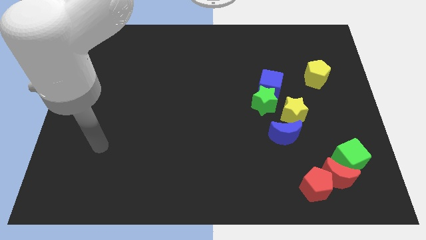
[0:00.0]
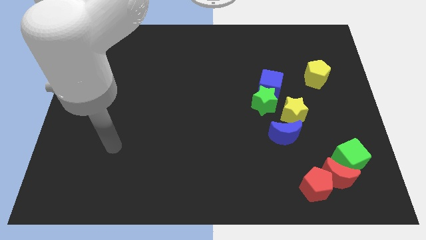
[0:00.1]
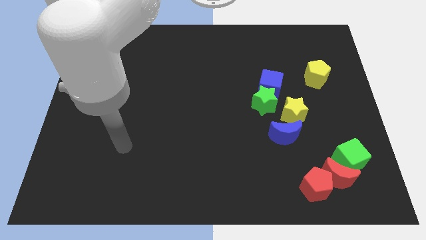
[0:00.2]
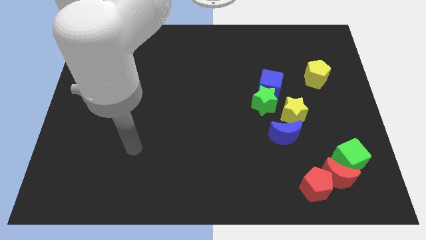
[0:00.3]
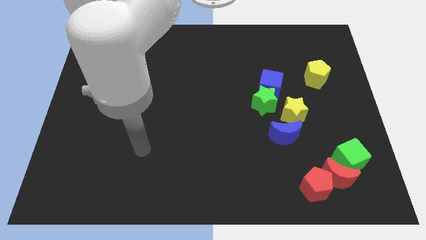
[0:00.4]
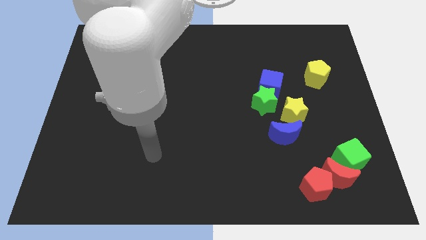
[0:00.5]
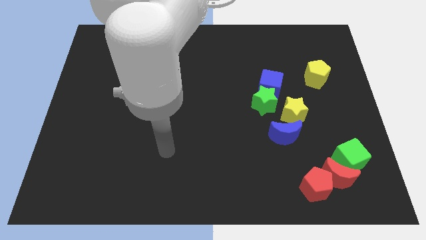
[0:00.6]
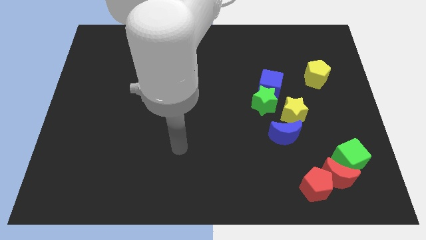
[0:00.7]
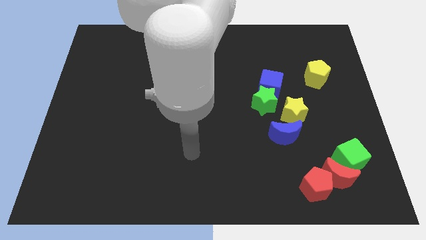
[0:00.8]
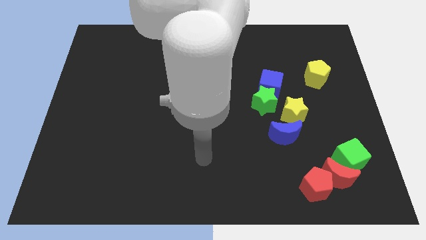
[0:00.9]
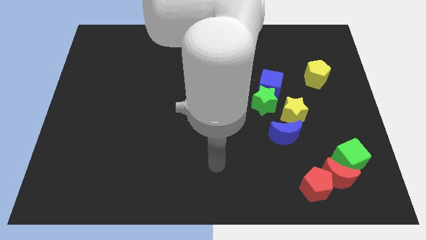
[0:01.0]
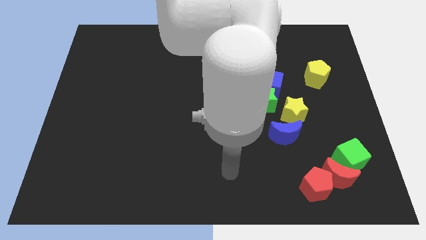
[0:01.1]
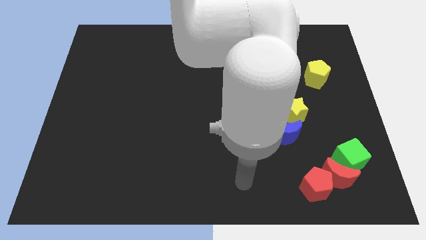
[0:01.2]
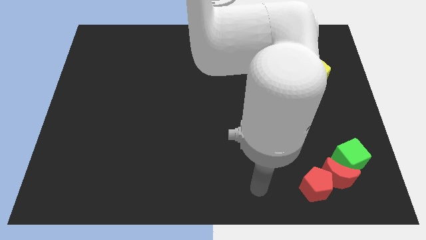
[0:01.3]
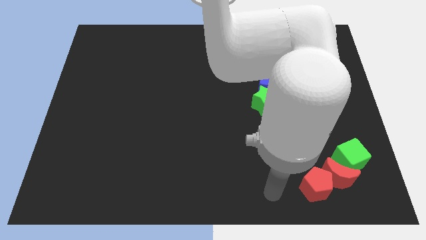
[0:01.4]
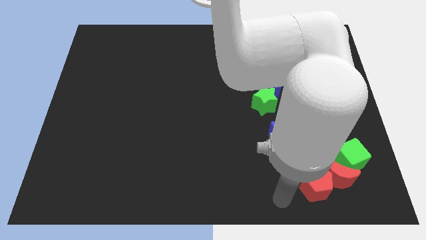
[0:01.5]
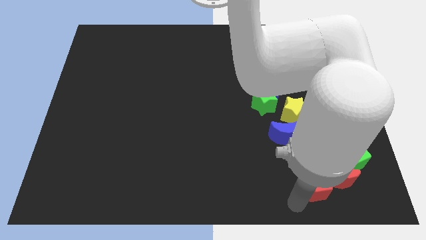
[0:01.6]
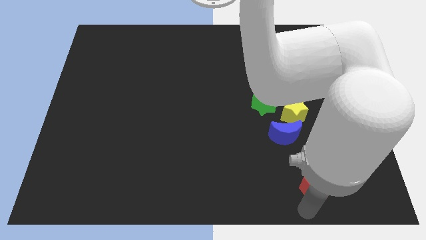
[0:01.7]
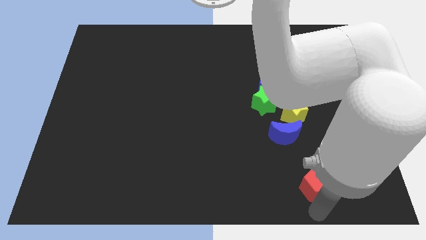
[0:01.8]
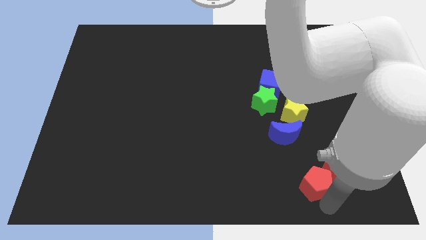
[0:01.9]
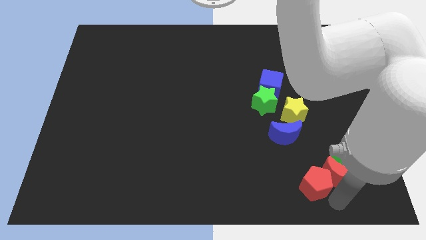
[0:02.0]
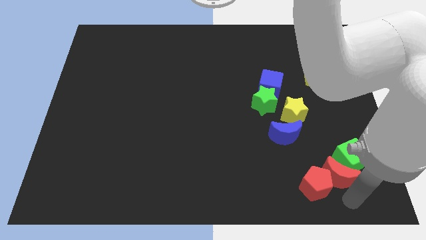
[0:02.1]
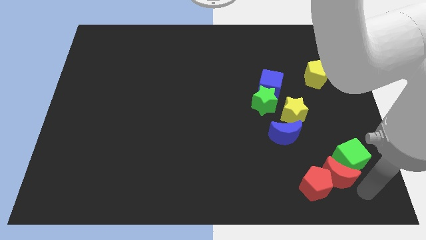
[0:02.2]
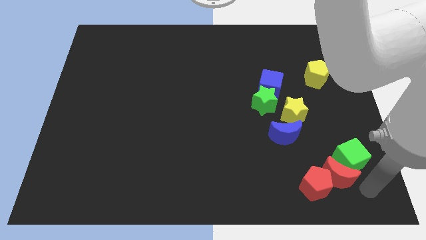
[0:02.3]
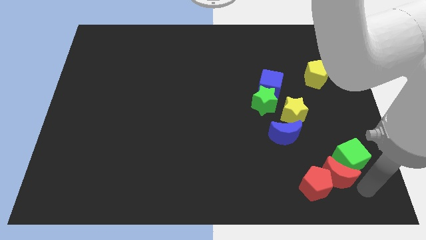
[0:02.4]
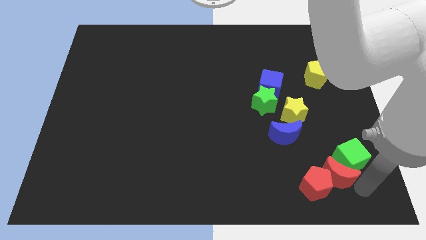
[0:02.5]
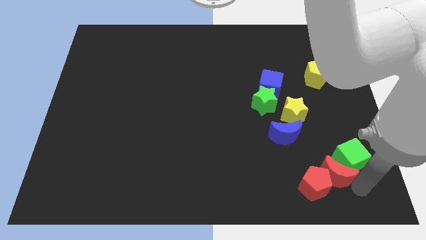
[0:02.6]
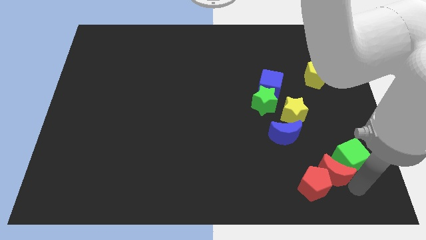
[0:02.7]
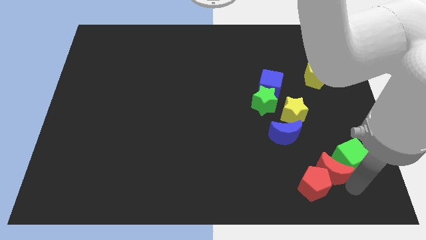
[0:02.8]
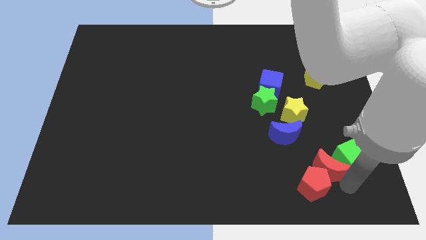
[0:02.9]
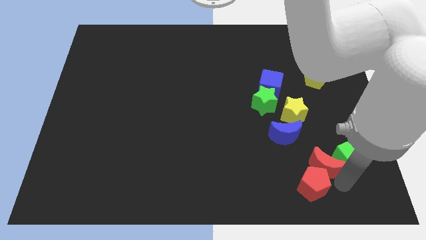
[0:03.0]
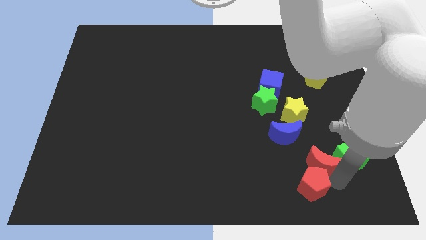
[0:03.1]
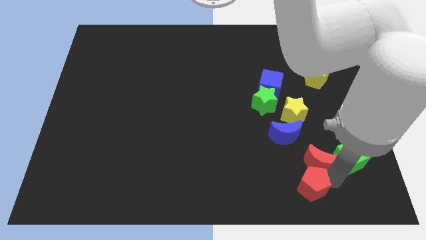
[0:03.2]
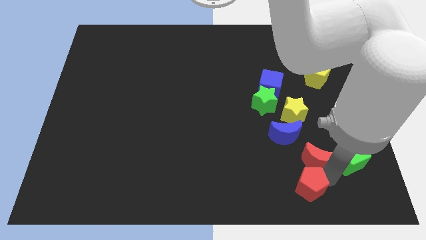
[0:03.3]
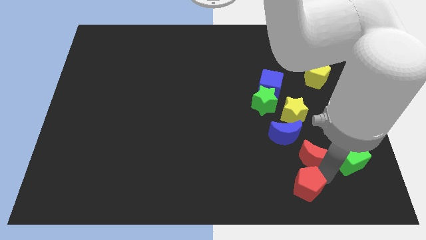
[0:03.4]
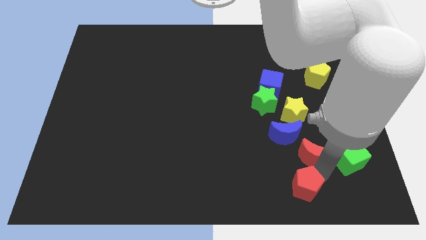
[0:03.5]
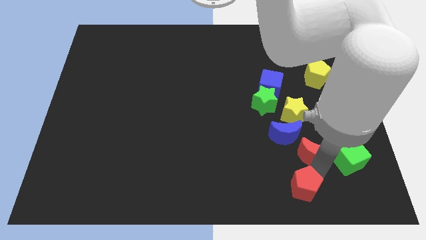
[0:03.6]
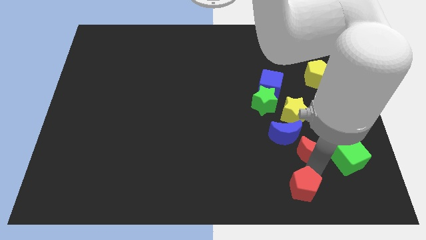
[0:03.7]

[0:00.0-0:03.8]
slide the red moon upwards and then to the left slightly

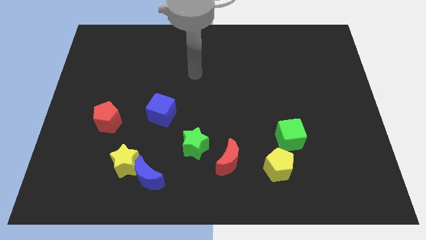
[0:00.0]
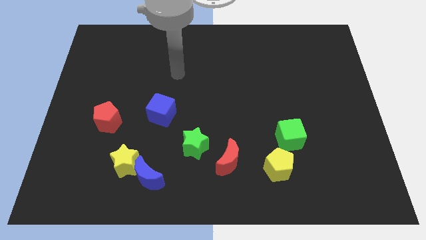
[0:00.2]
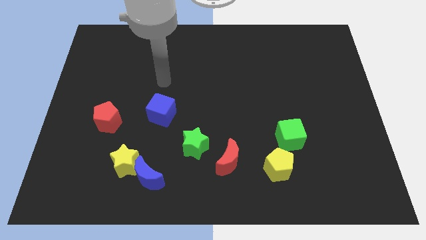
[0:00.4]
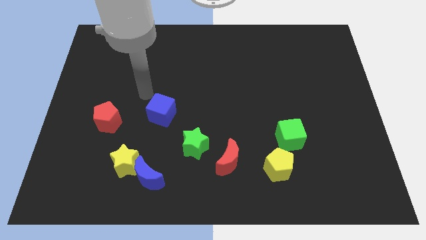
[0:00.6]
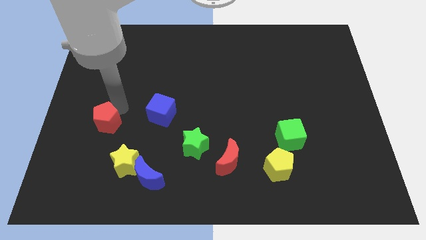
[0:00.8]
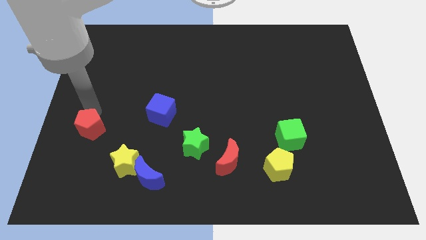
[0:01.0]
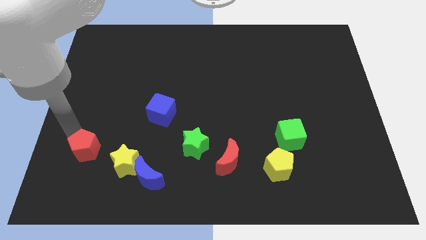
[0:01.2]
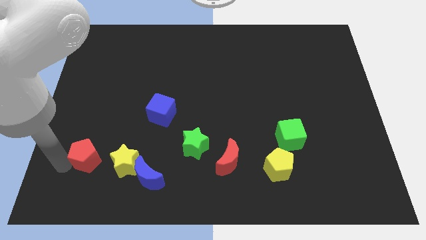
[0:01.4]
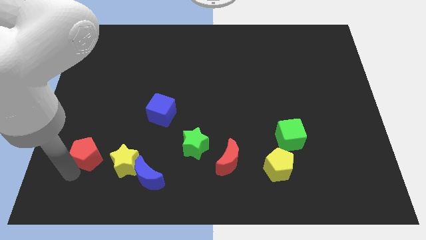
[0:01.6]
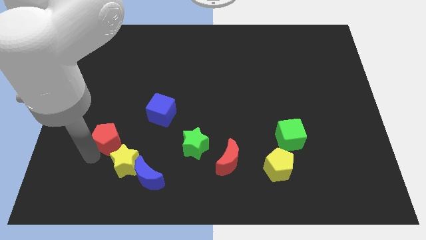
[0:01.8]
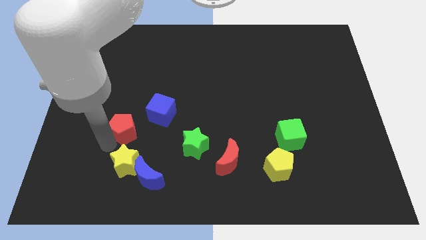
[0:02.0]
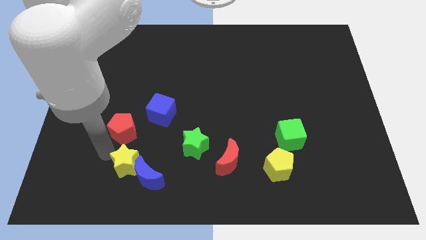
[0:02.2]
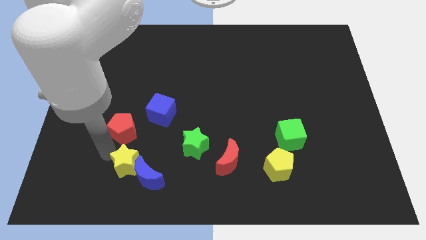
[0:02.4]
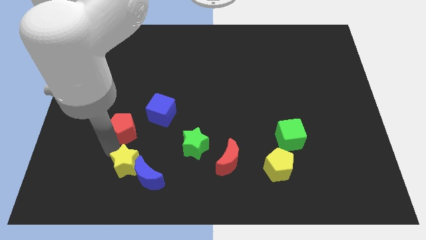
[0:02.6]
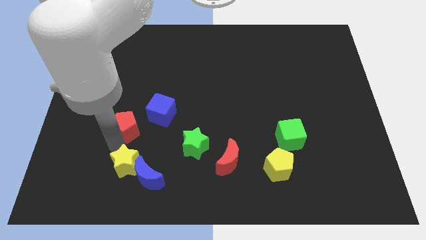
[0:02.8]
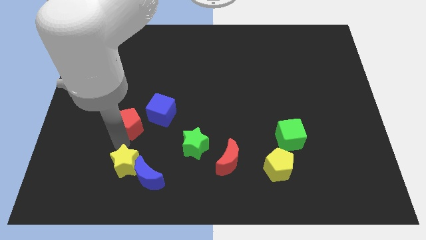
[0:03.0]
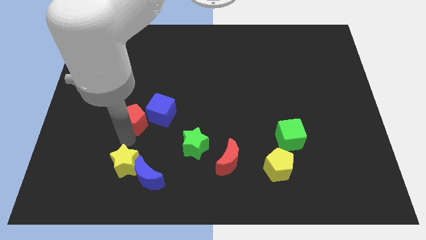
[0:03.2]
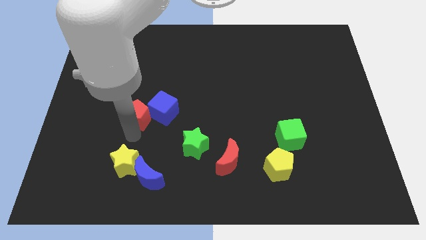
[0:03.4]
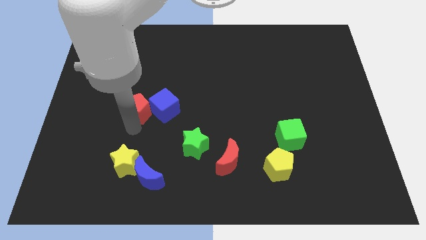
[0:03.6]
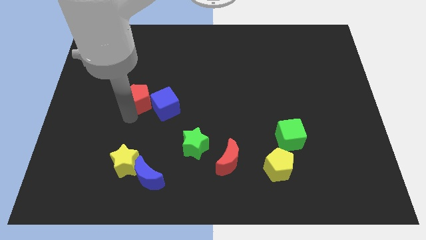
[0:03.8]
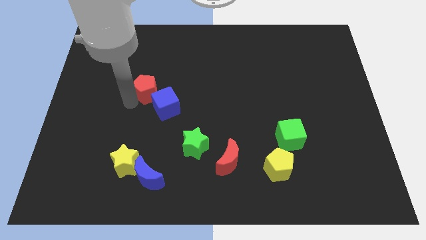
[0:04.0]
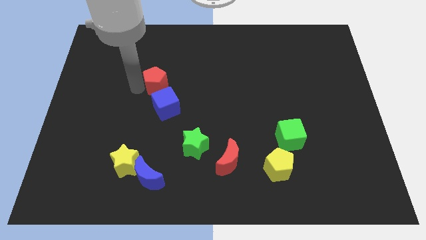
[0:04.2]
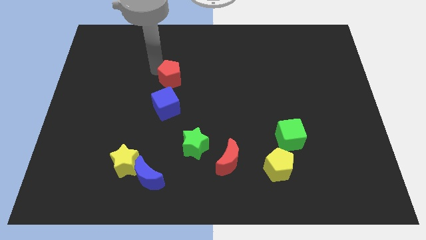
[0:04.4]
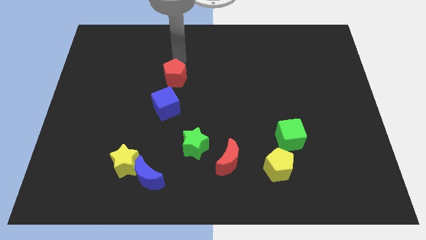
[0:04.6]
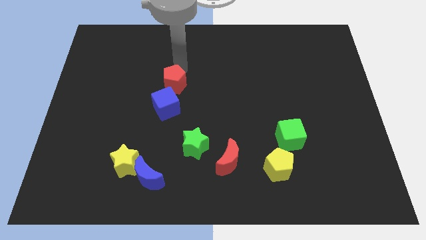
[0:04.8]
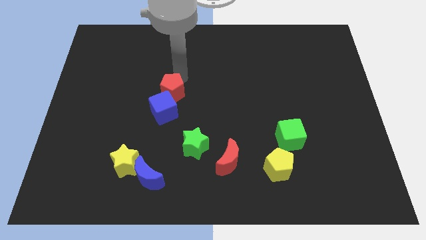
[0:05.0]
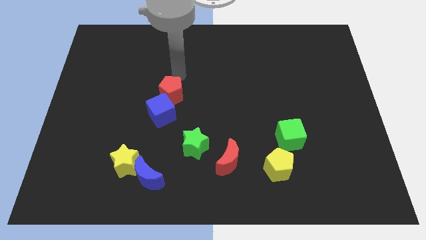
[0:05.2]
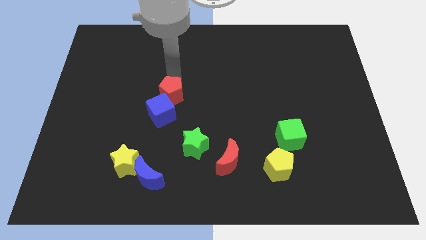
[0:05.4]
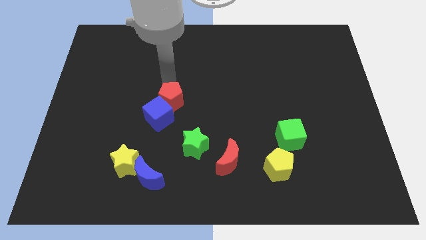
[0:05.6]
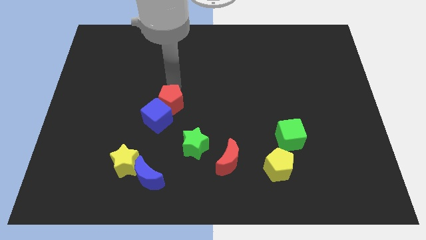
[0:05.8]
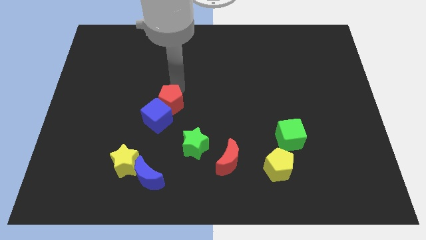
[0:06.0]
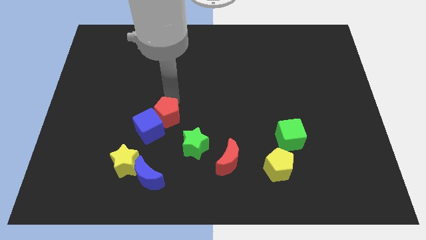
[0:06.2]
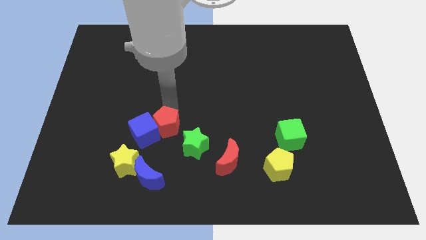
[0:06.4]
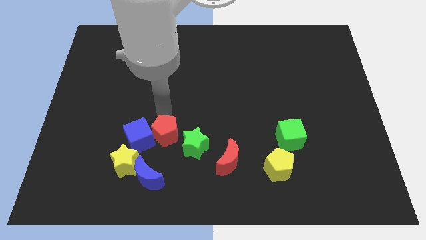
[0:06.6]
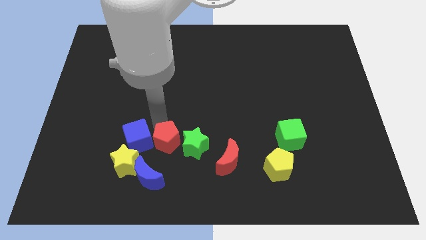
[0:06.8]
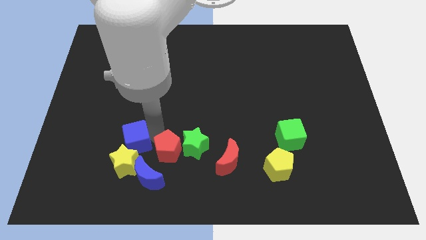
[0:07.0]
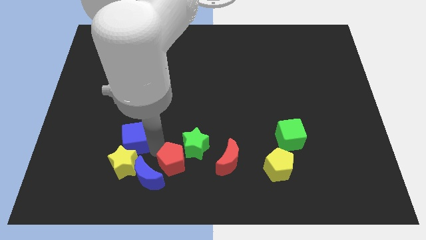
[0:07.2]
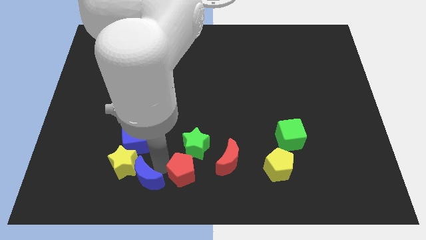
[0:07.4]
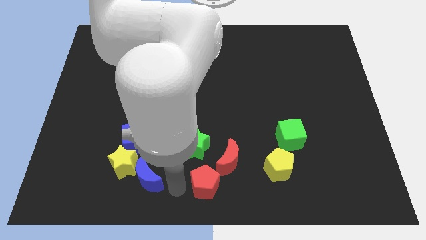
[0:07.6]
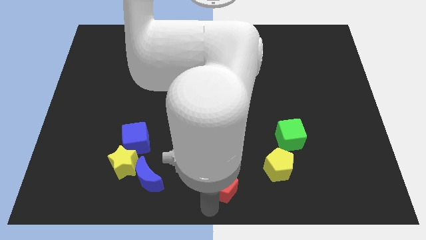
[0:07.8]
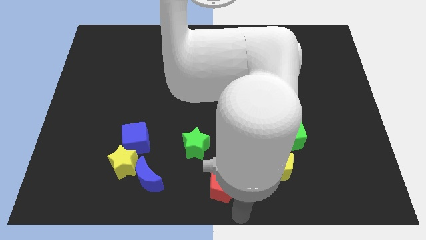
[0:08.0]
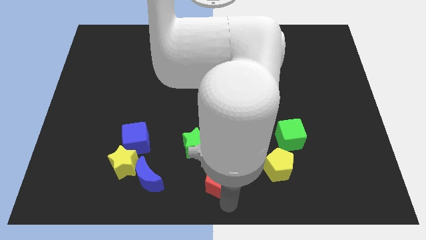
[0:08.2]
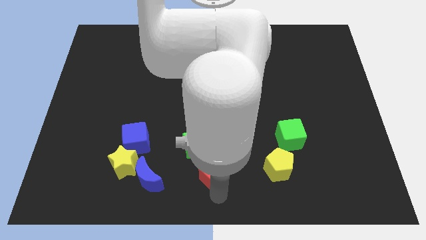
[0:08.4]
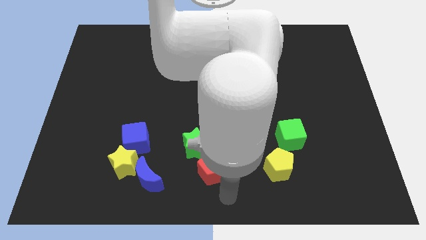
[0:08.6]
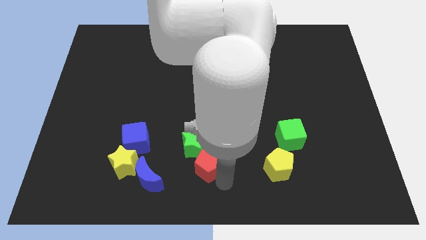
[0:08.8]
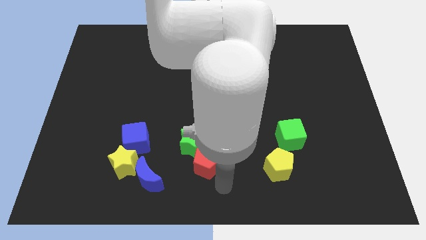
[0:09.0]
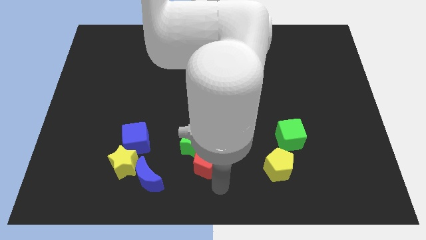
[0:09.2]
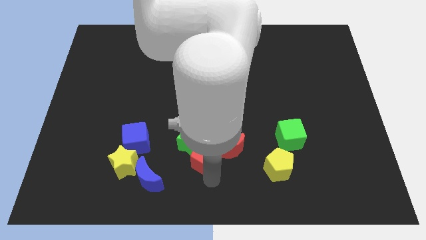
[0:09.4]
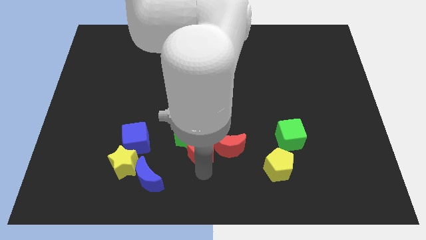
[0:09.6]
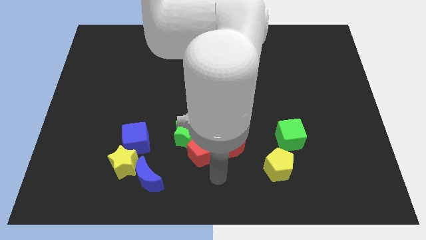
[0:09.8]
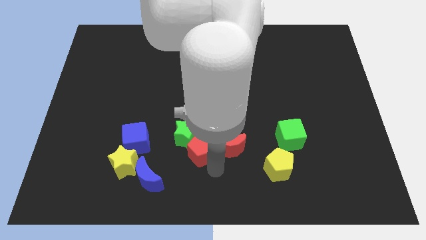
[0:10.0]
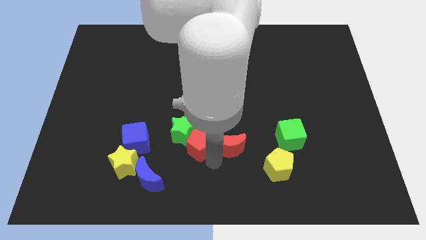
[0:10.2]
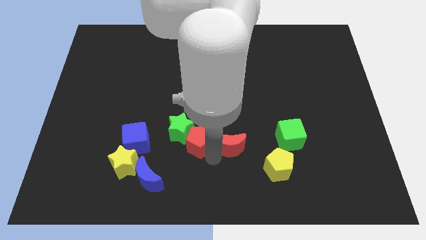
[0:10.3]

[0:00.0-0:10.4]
slide the red pentagon right
